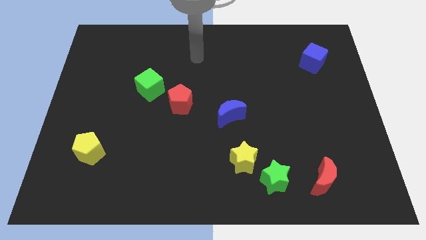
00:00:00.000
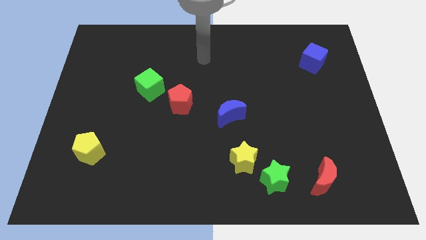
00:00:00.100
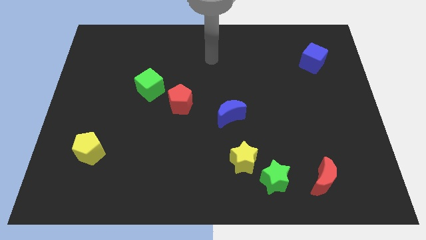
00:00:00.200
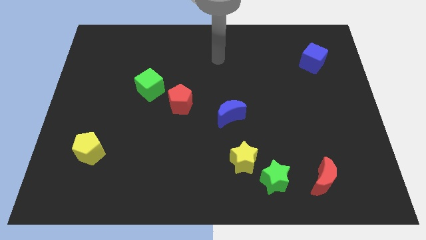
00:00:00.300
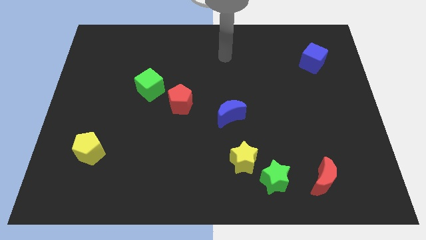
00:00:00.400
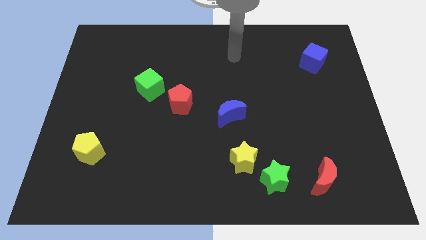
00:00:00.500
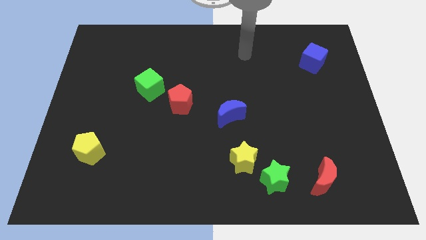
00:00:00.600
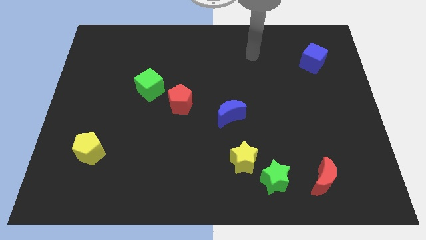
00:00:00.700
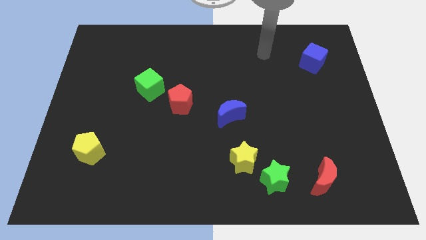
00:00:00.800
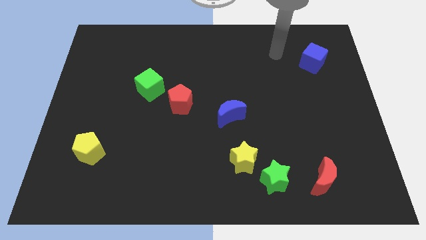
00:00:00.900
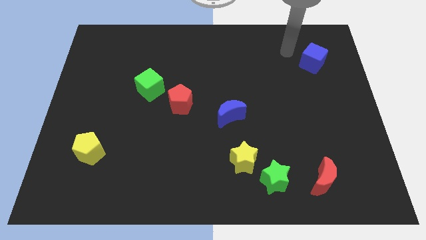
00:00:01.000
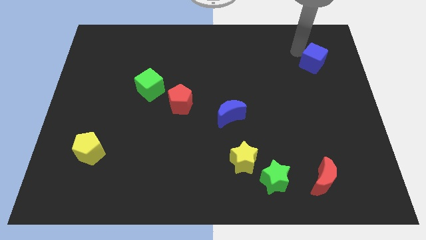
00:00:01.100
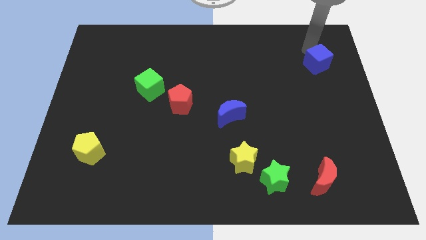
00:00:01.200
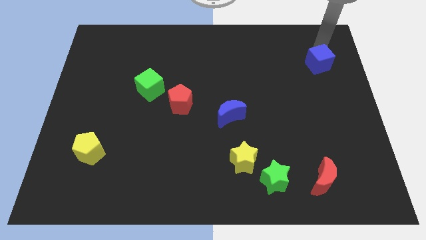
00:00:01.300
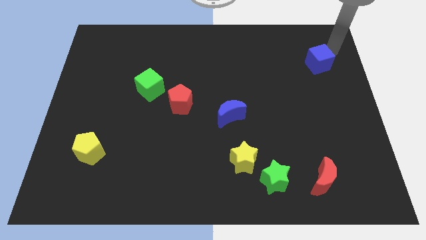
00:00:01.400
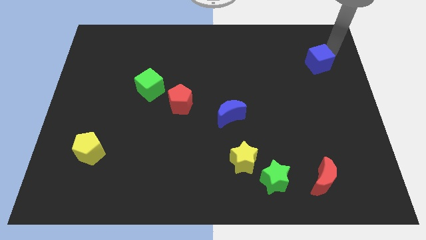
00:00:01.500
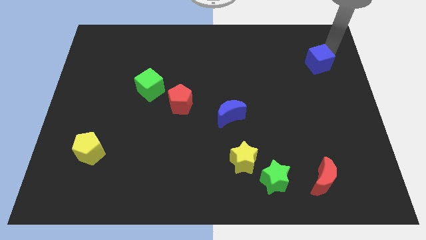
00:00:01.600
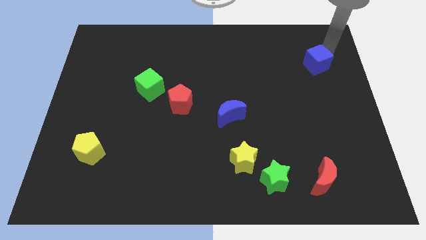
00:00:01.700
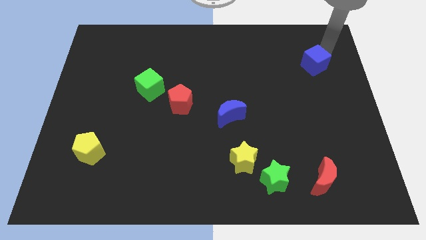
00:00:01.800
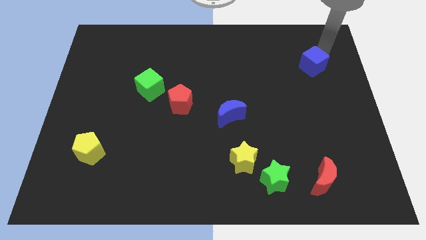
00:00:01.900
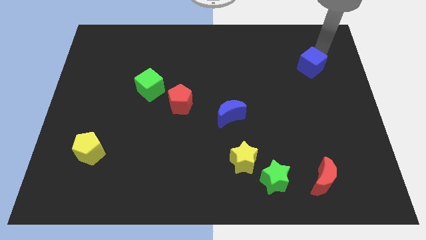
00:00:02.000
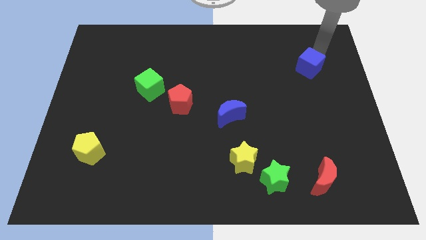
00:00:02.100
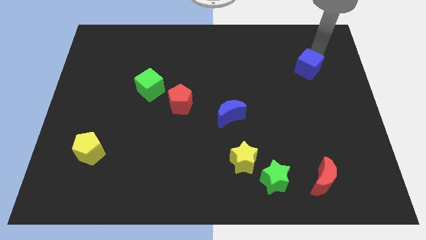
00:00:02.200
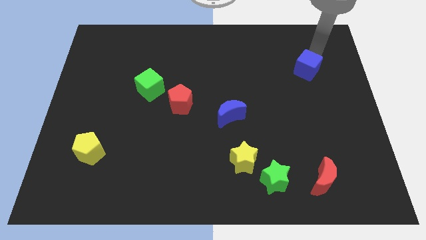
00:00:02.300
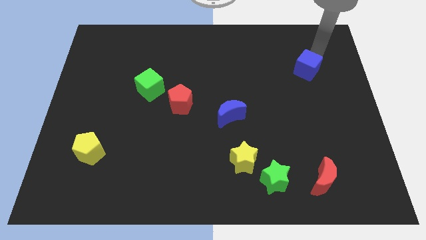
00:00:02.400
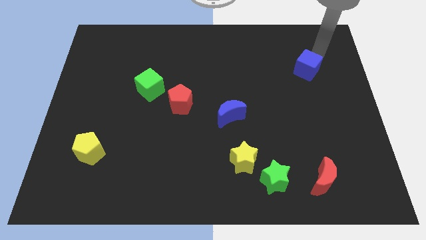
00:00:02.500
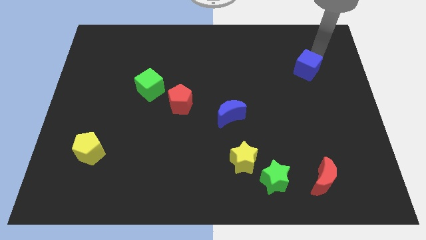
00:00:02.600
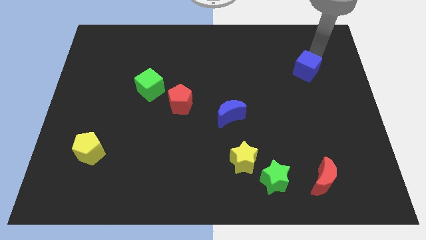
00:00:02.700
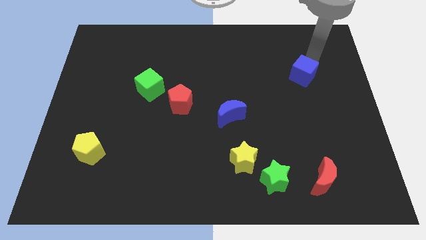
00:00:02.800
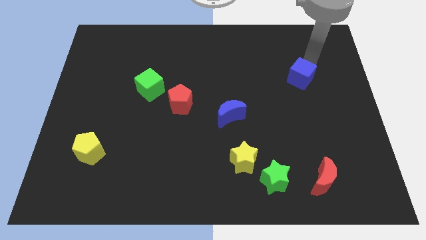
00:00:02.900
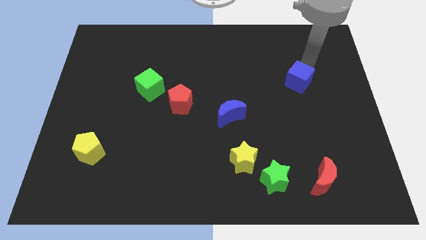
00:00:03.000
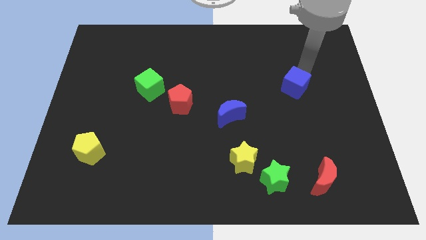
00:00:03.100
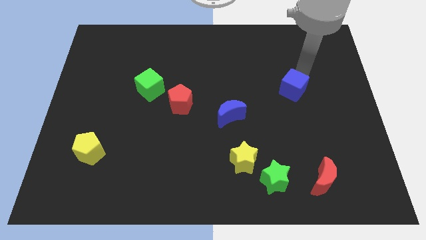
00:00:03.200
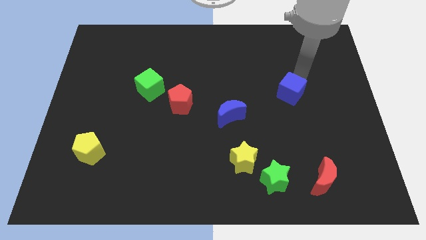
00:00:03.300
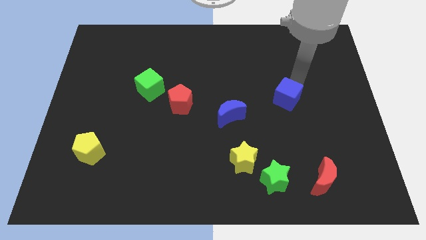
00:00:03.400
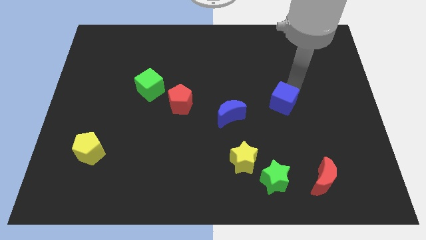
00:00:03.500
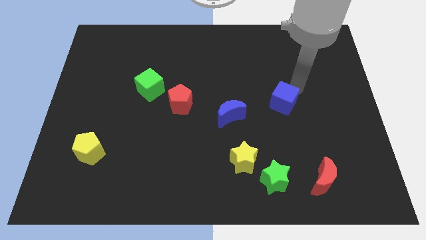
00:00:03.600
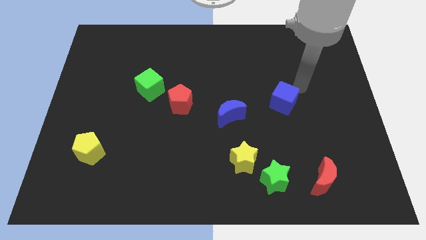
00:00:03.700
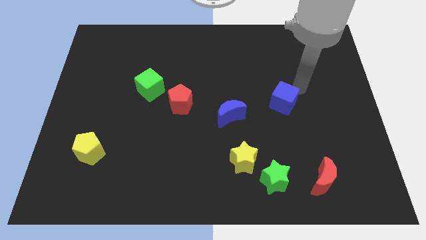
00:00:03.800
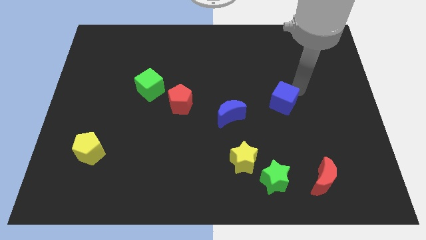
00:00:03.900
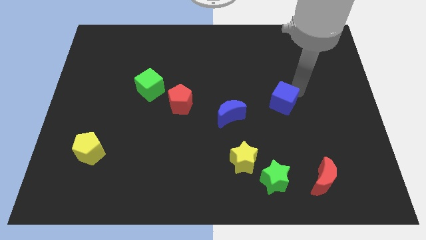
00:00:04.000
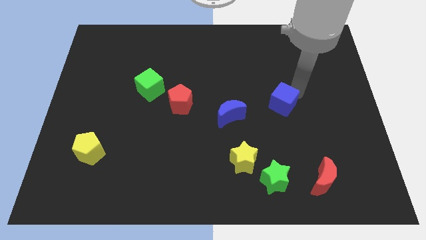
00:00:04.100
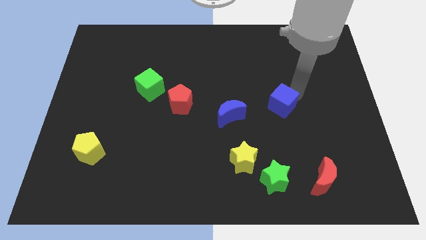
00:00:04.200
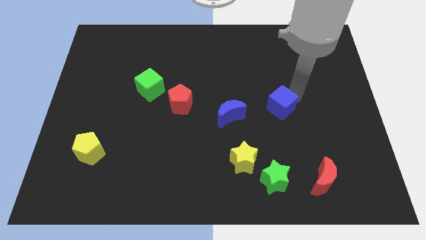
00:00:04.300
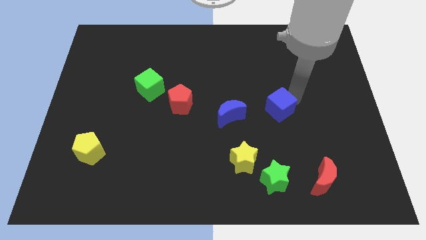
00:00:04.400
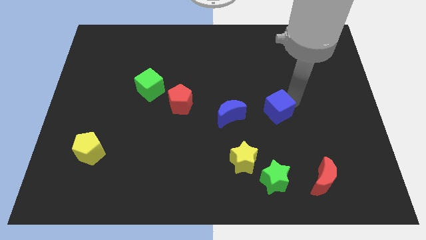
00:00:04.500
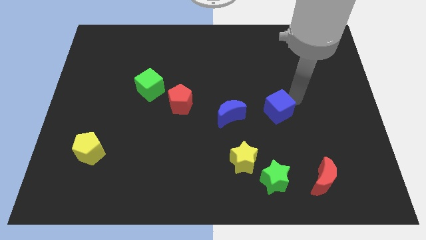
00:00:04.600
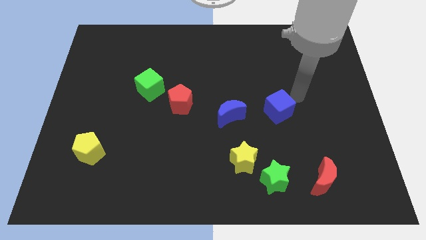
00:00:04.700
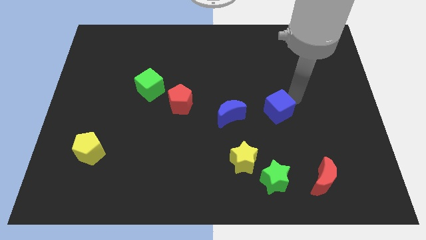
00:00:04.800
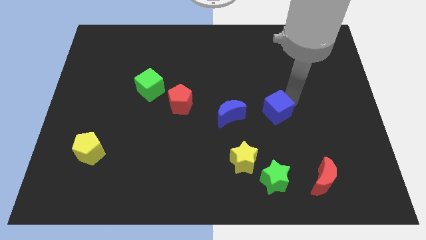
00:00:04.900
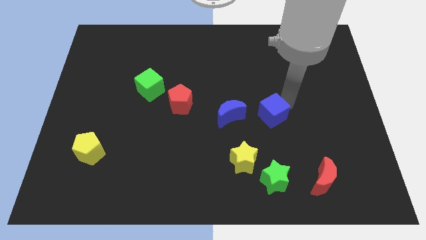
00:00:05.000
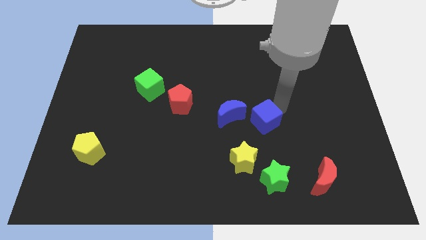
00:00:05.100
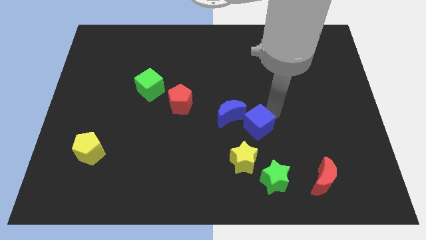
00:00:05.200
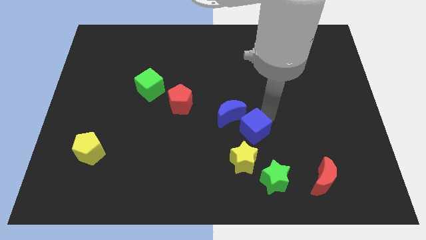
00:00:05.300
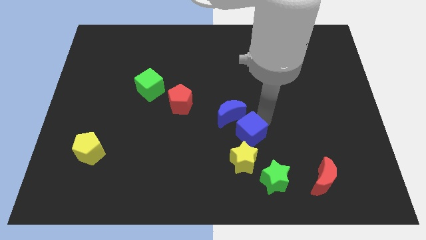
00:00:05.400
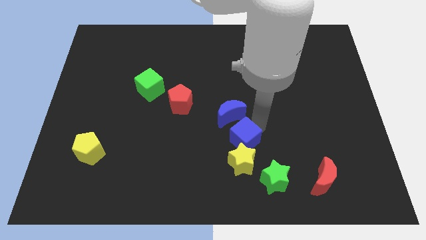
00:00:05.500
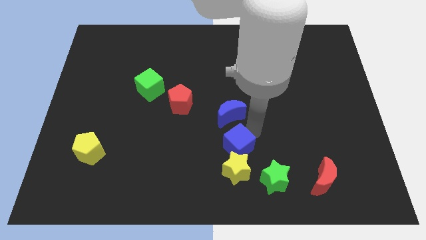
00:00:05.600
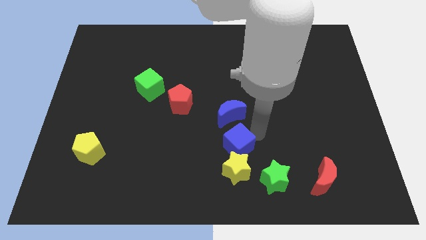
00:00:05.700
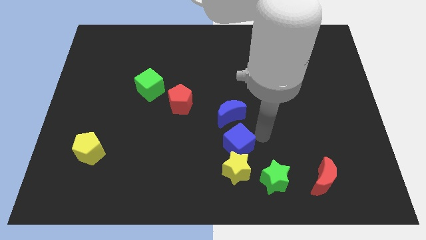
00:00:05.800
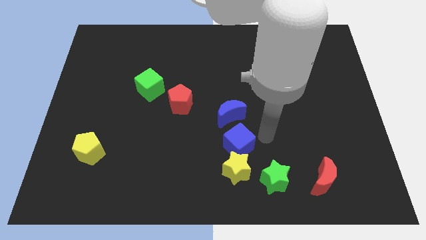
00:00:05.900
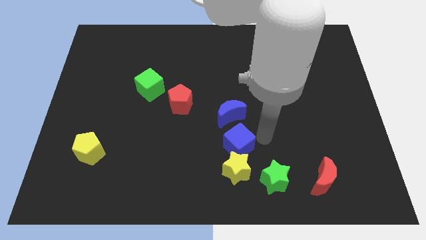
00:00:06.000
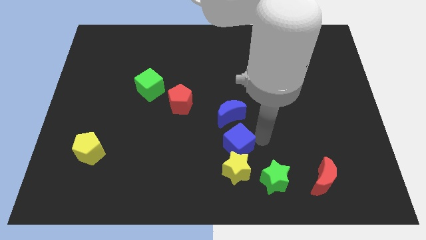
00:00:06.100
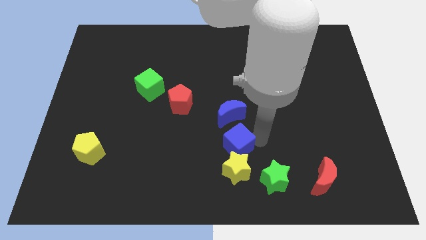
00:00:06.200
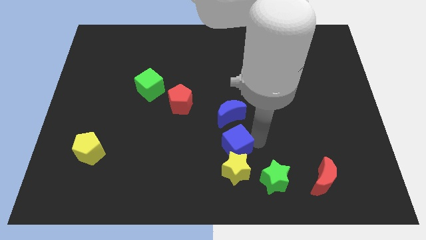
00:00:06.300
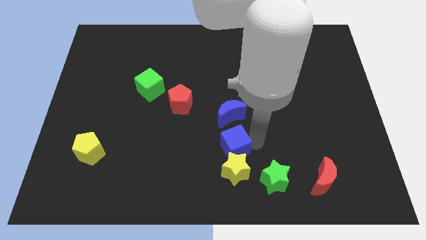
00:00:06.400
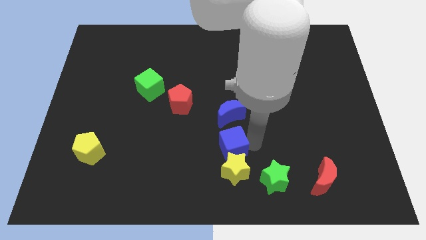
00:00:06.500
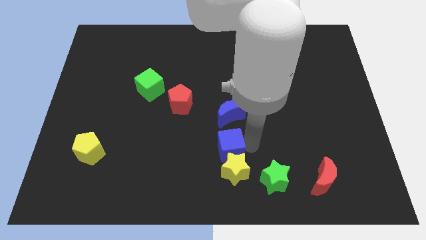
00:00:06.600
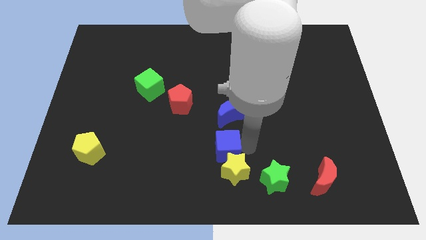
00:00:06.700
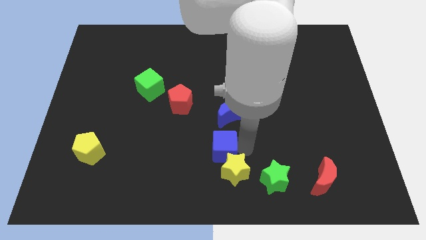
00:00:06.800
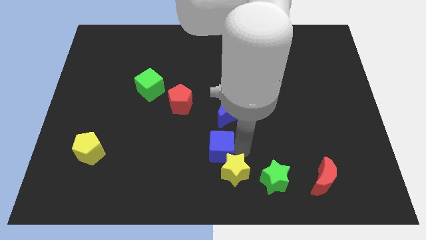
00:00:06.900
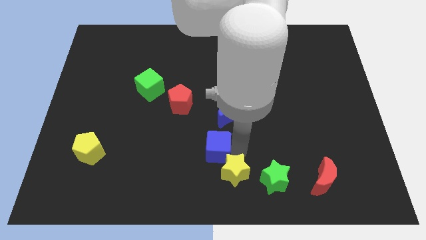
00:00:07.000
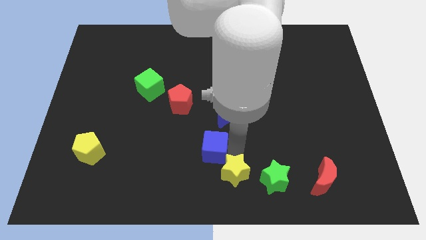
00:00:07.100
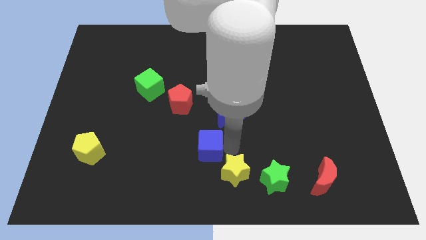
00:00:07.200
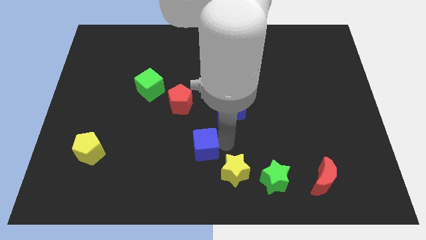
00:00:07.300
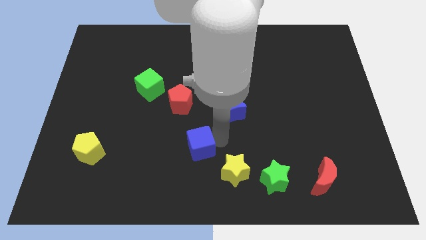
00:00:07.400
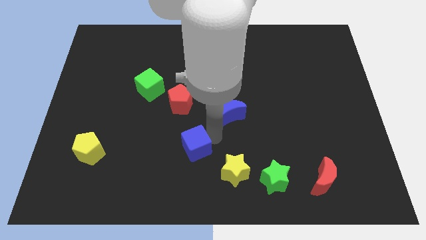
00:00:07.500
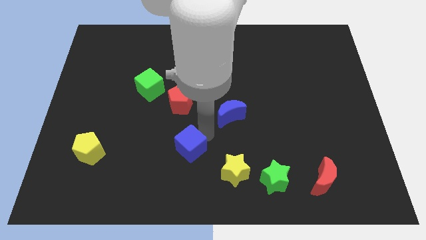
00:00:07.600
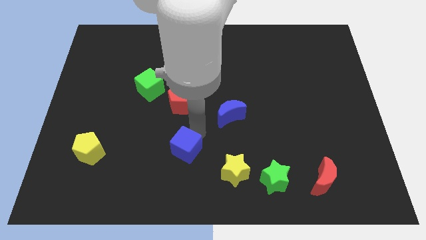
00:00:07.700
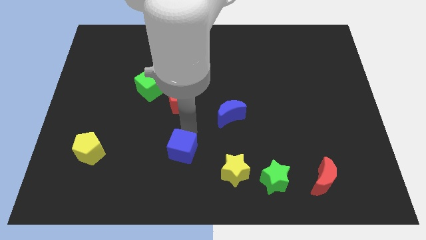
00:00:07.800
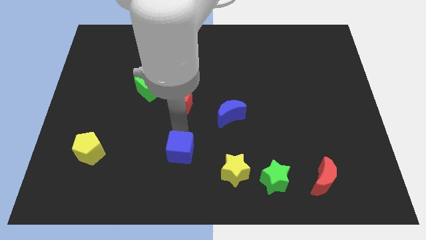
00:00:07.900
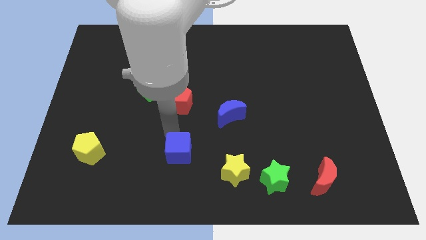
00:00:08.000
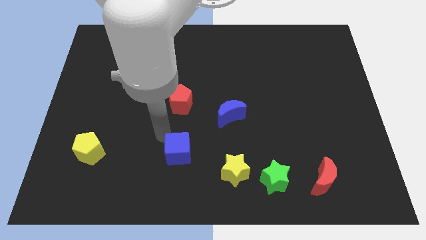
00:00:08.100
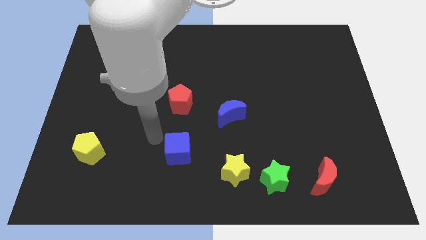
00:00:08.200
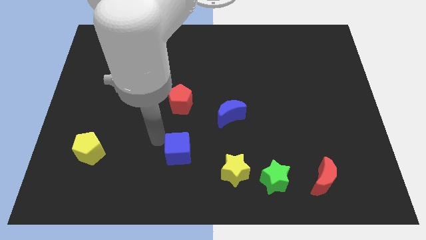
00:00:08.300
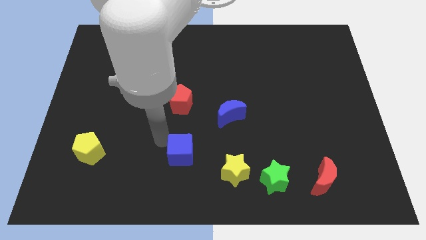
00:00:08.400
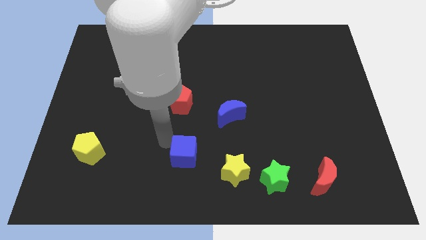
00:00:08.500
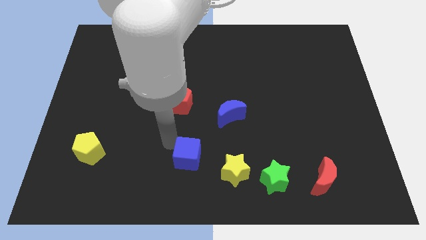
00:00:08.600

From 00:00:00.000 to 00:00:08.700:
move the blue cube to the bottom
